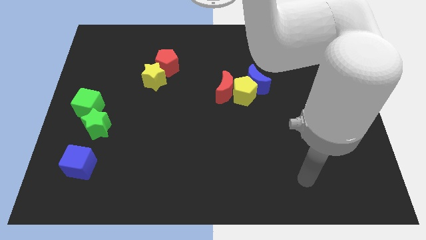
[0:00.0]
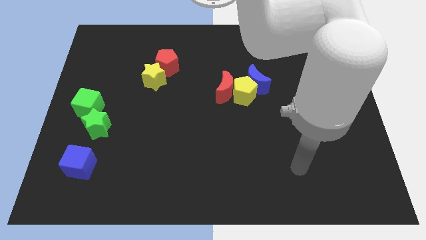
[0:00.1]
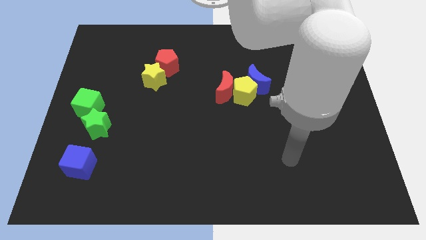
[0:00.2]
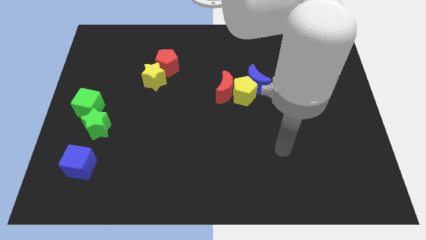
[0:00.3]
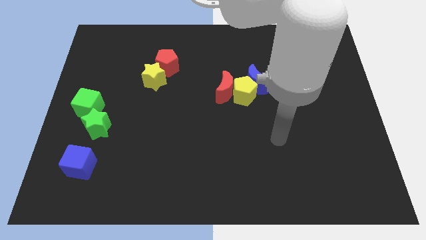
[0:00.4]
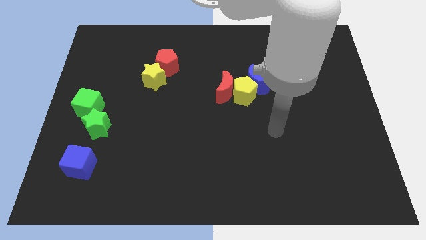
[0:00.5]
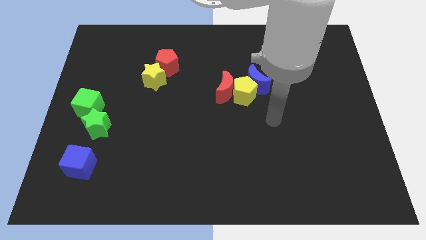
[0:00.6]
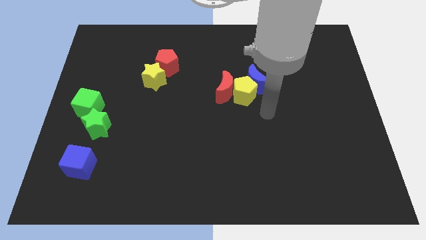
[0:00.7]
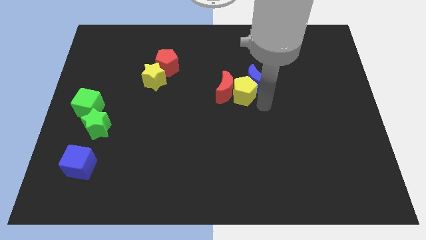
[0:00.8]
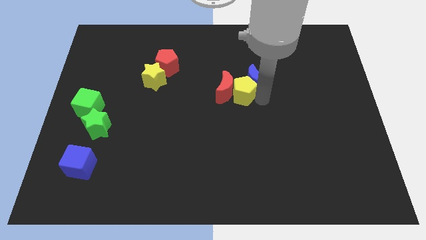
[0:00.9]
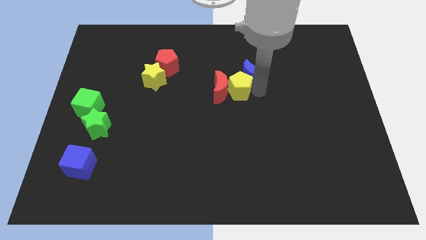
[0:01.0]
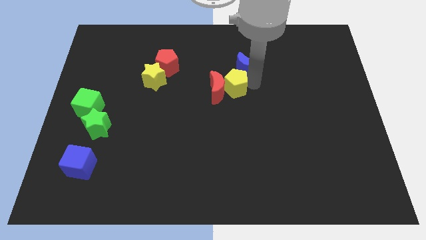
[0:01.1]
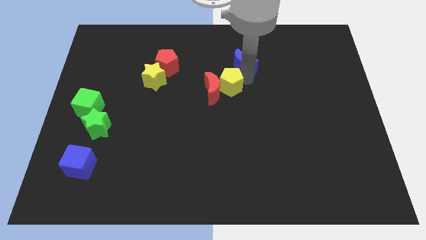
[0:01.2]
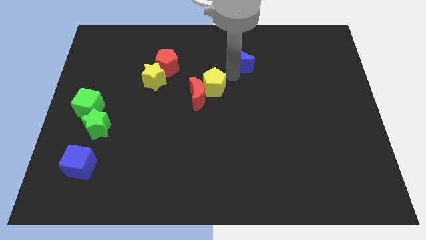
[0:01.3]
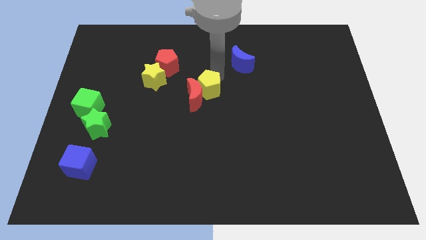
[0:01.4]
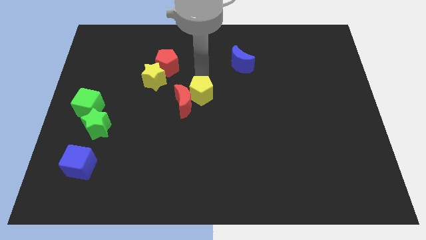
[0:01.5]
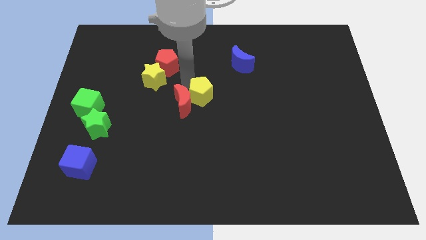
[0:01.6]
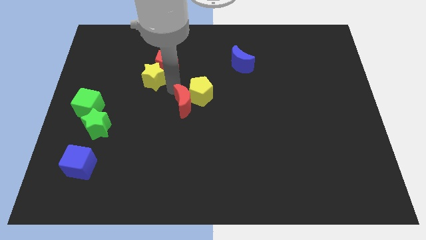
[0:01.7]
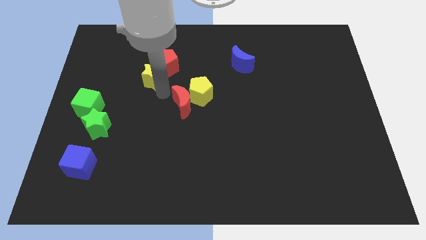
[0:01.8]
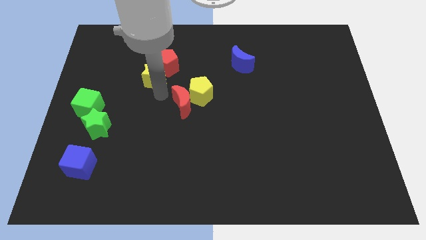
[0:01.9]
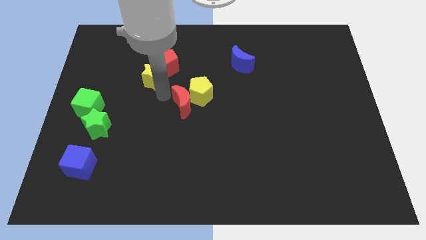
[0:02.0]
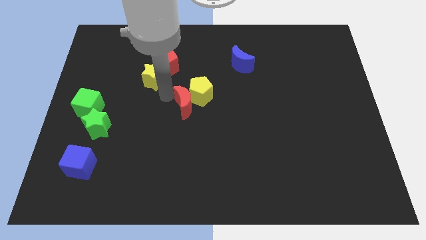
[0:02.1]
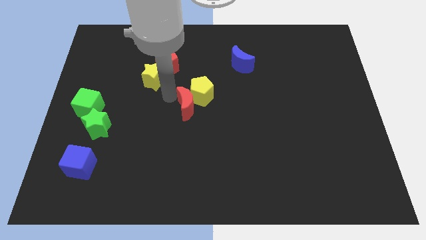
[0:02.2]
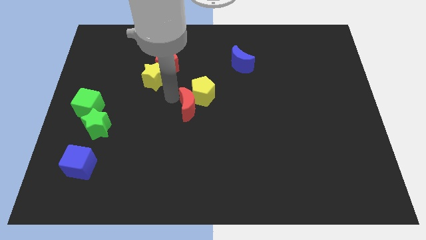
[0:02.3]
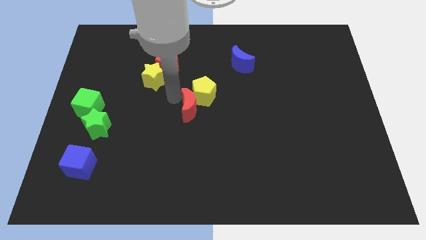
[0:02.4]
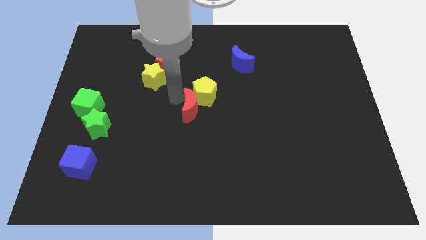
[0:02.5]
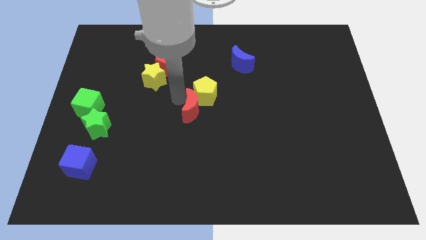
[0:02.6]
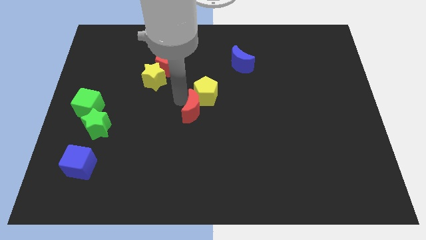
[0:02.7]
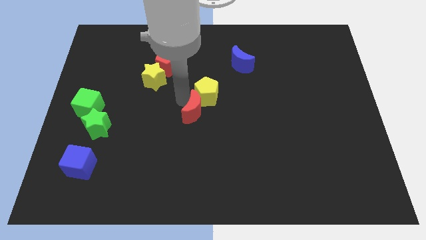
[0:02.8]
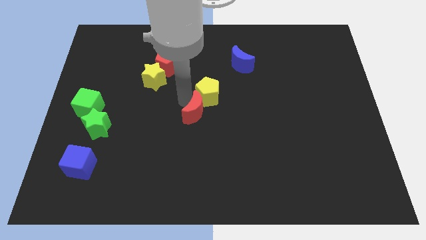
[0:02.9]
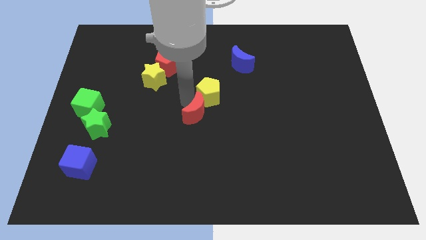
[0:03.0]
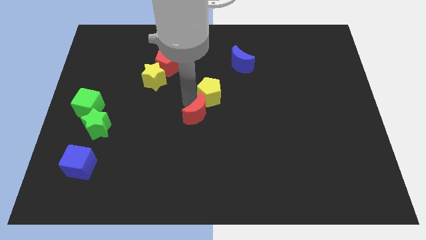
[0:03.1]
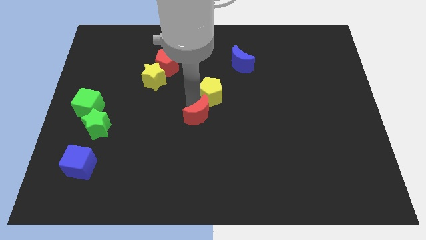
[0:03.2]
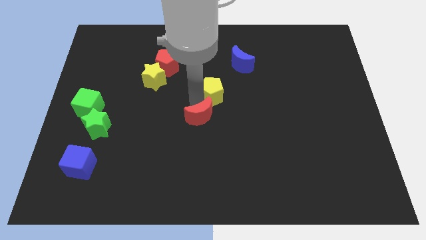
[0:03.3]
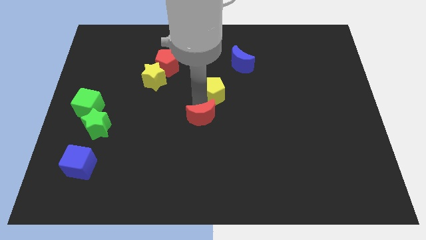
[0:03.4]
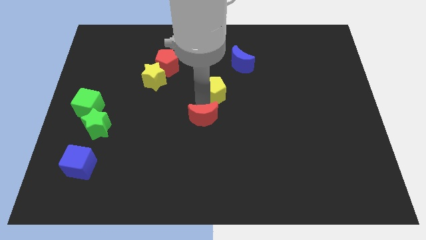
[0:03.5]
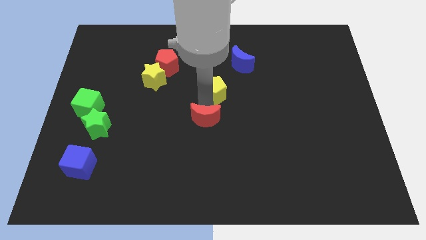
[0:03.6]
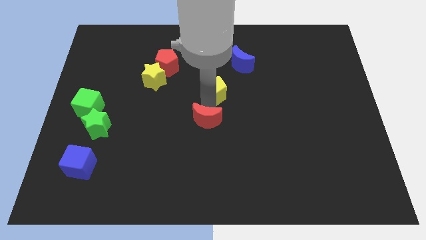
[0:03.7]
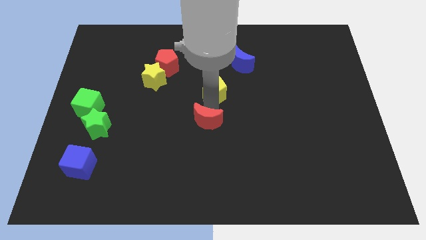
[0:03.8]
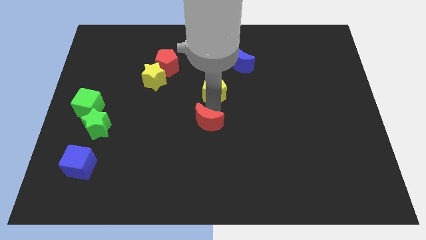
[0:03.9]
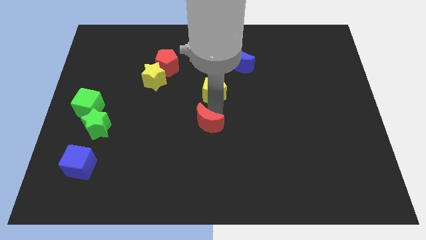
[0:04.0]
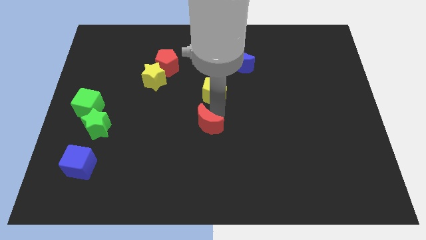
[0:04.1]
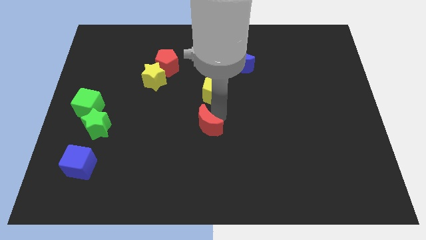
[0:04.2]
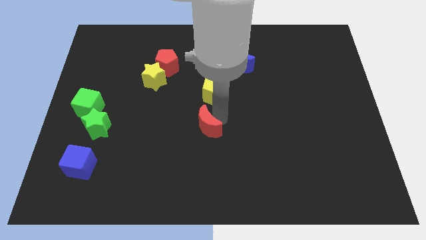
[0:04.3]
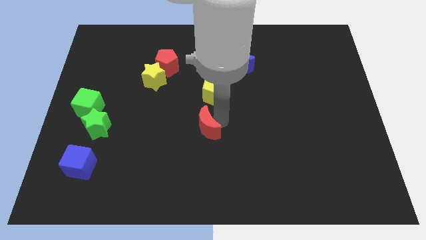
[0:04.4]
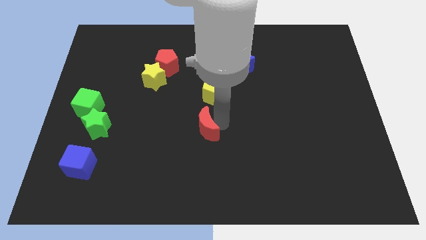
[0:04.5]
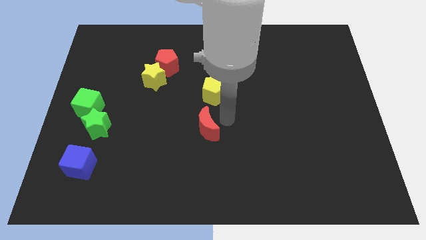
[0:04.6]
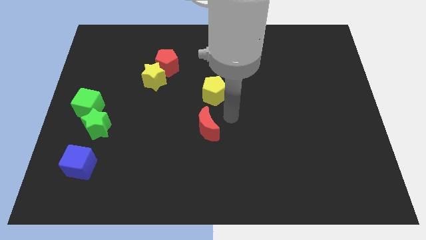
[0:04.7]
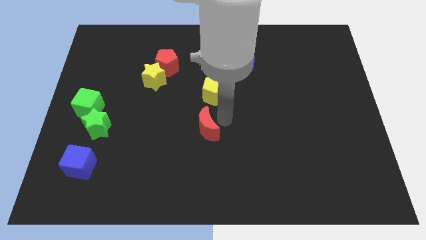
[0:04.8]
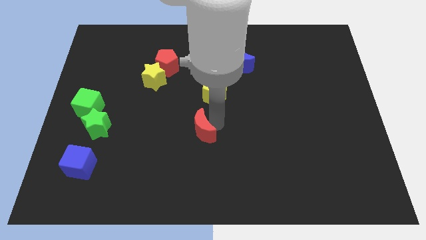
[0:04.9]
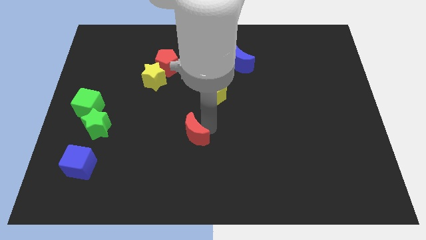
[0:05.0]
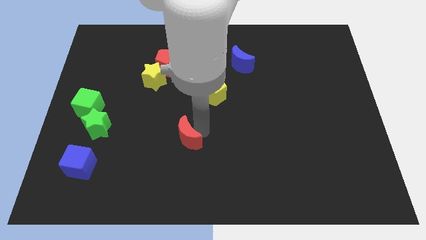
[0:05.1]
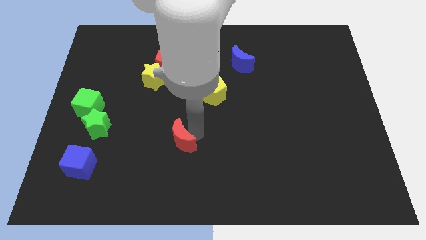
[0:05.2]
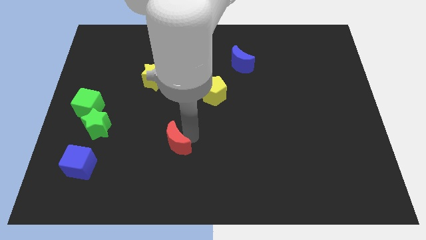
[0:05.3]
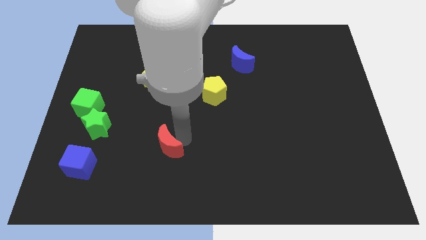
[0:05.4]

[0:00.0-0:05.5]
push the red moon downwards and to the left diagonally

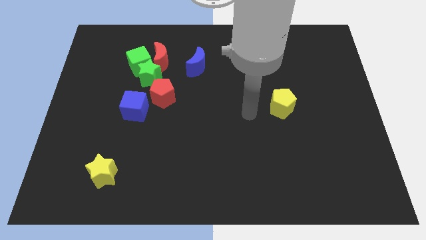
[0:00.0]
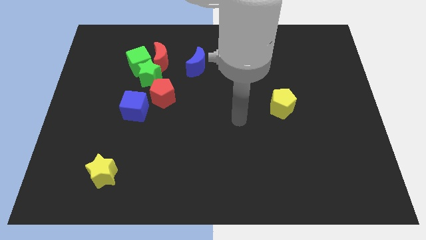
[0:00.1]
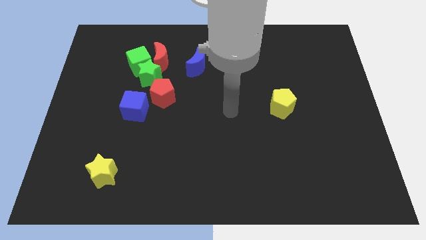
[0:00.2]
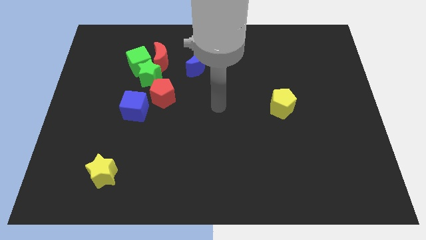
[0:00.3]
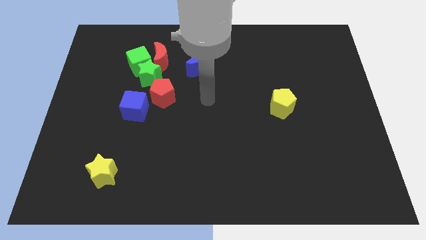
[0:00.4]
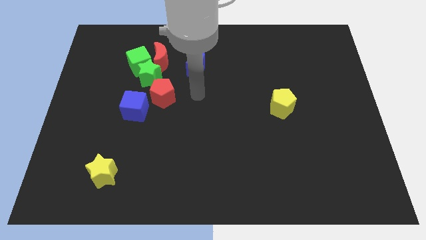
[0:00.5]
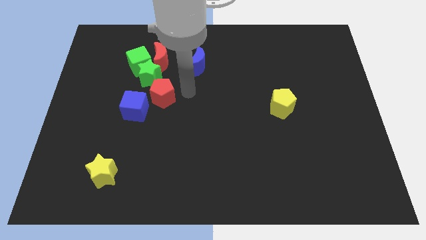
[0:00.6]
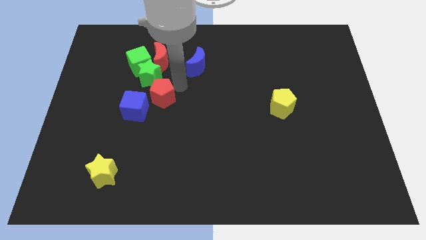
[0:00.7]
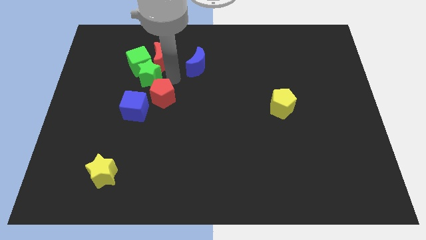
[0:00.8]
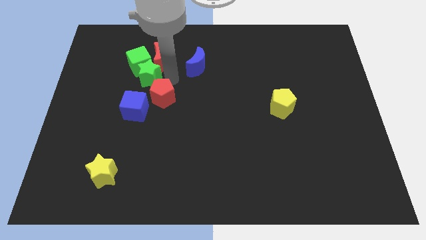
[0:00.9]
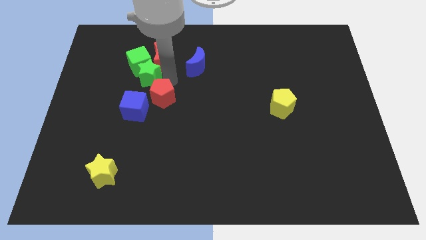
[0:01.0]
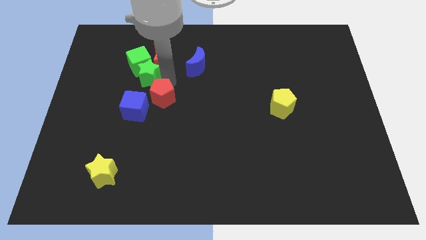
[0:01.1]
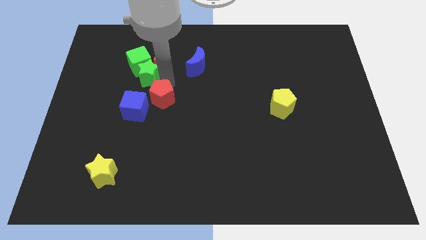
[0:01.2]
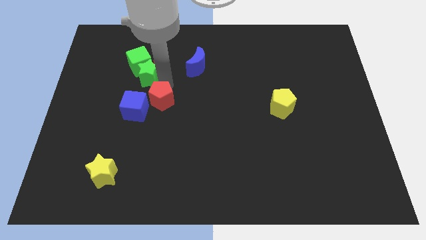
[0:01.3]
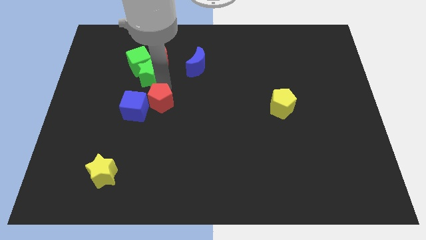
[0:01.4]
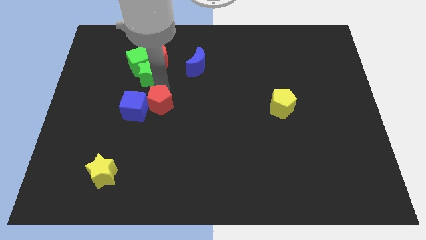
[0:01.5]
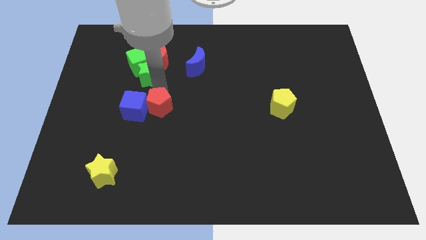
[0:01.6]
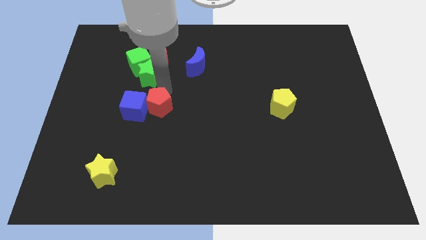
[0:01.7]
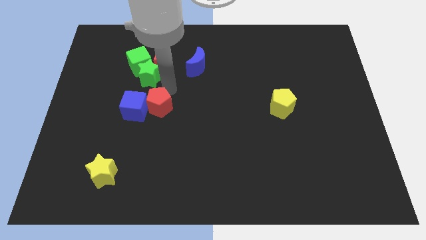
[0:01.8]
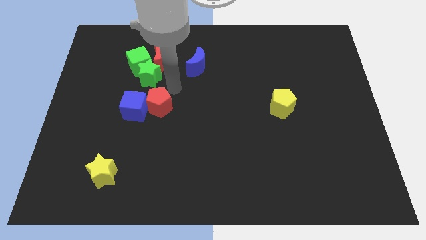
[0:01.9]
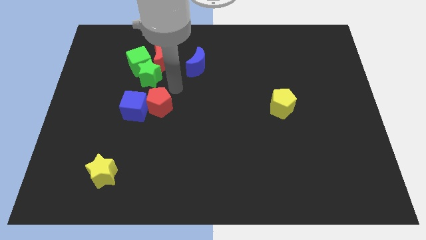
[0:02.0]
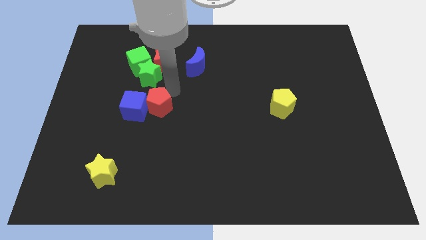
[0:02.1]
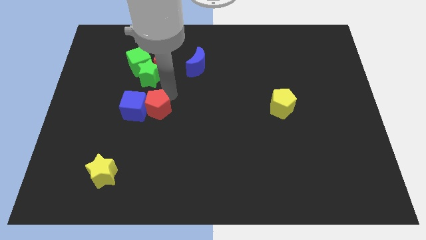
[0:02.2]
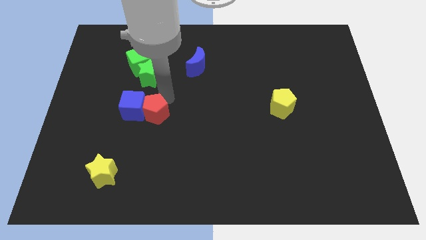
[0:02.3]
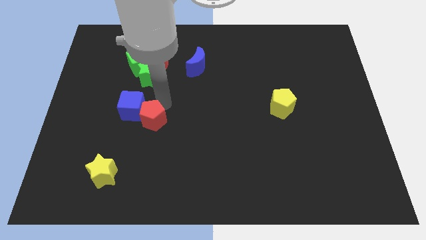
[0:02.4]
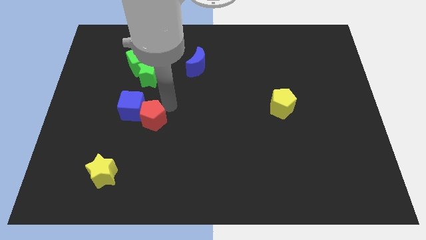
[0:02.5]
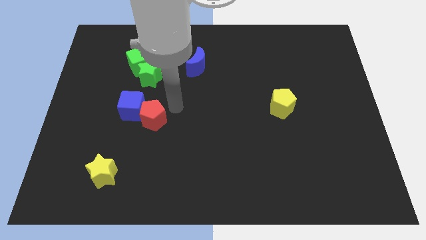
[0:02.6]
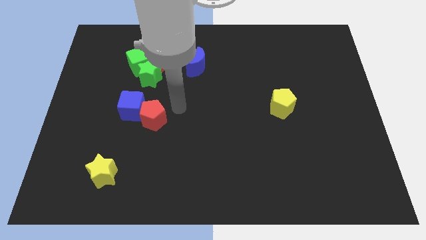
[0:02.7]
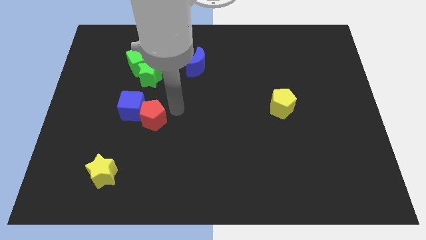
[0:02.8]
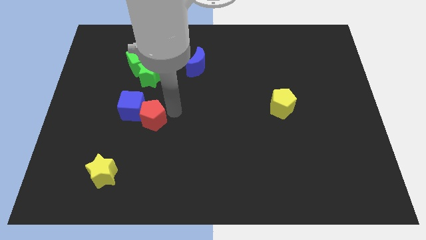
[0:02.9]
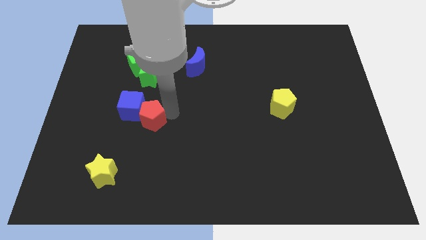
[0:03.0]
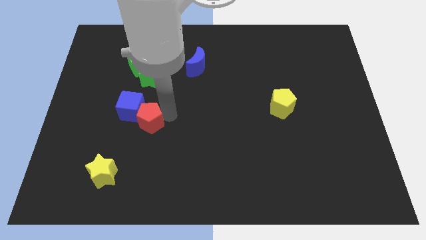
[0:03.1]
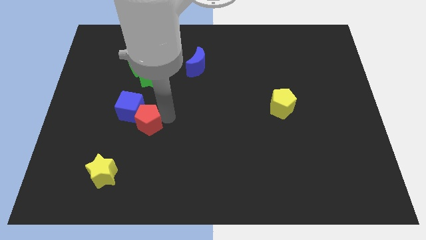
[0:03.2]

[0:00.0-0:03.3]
move the red pentagon down and then to the left somewhat
